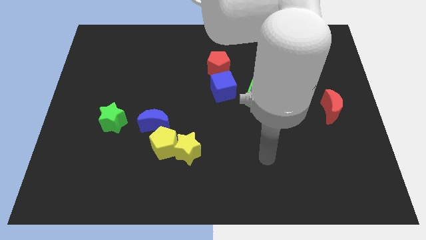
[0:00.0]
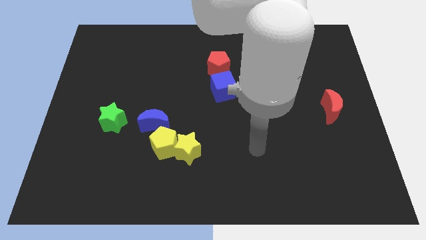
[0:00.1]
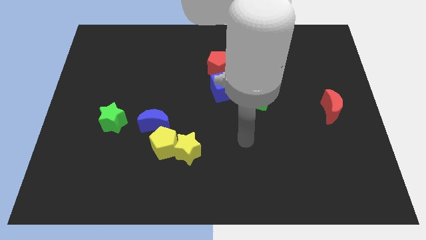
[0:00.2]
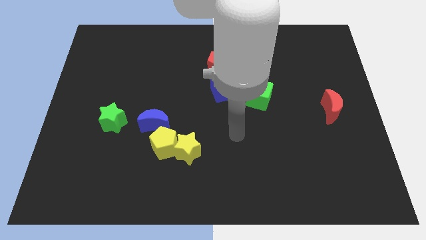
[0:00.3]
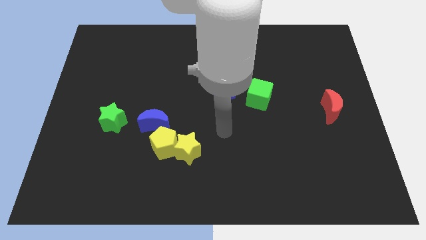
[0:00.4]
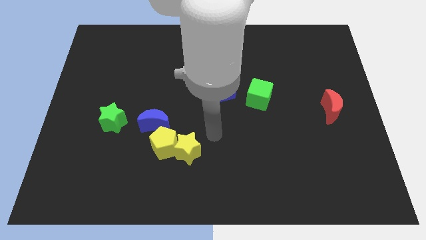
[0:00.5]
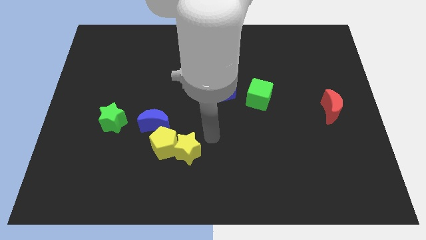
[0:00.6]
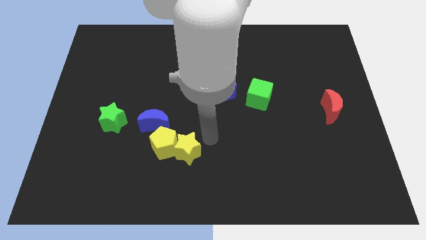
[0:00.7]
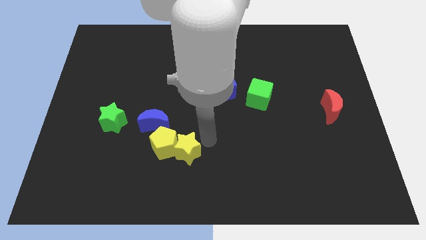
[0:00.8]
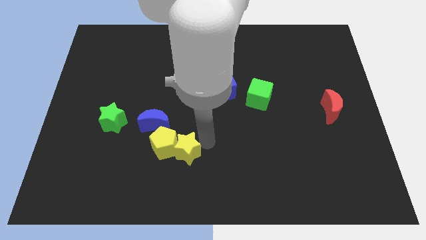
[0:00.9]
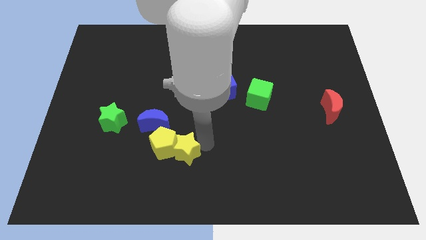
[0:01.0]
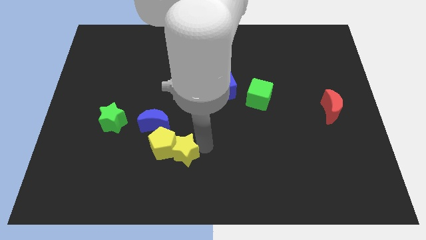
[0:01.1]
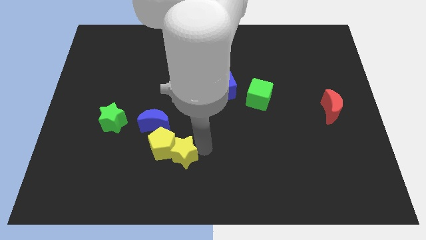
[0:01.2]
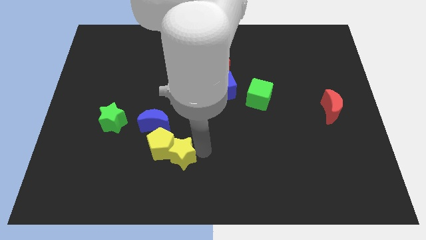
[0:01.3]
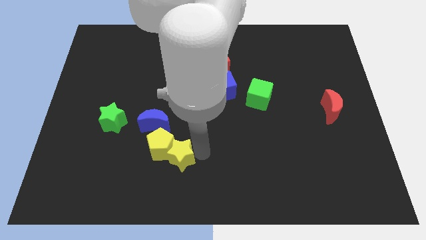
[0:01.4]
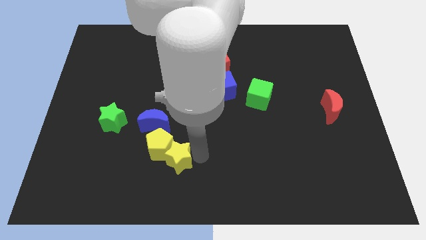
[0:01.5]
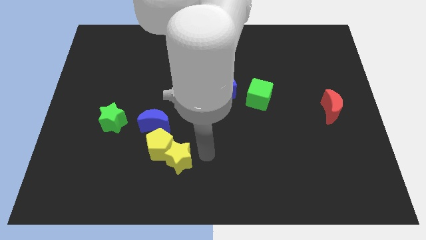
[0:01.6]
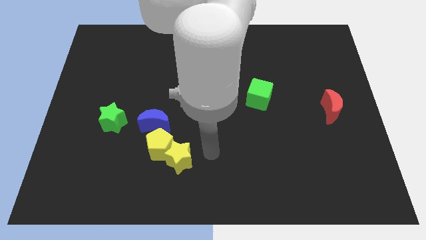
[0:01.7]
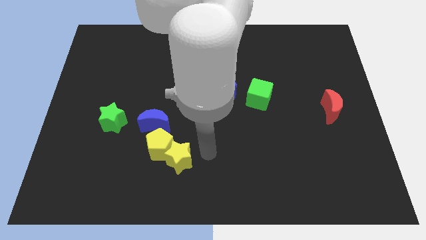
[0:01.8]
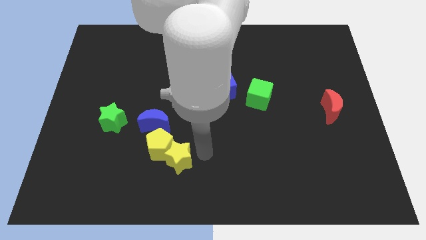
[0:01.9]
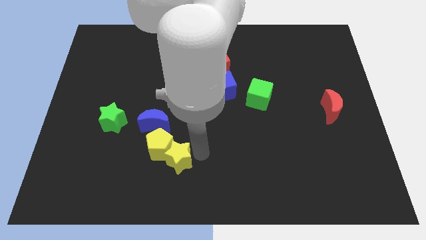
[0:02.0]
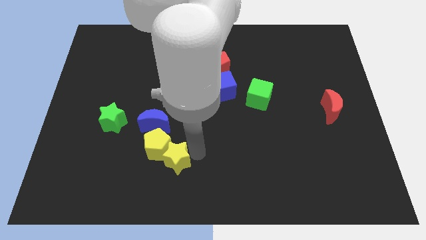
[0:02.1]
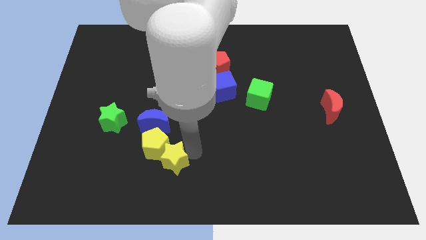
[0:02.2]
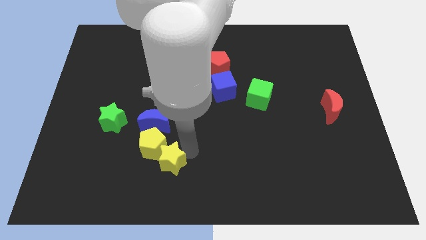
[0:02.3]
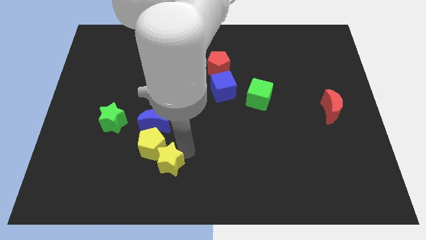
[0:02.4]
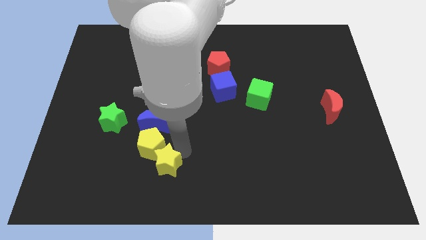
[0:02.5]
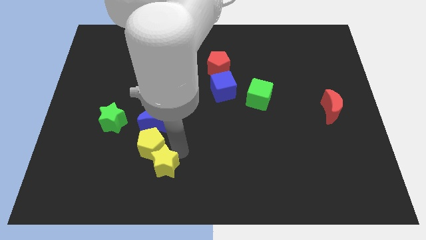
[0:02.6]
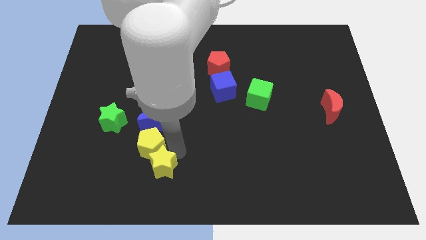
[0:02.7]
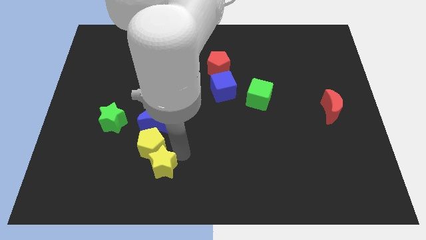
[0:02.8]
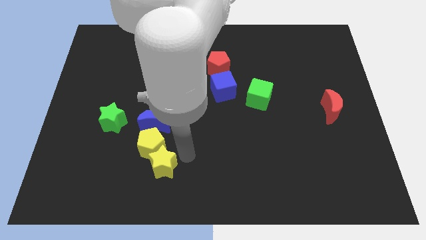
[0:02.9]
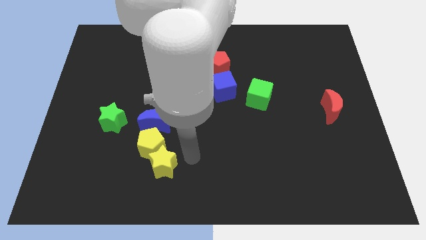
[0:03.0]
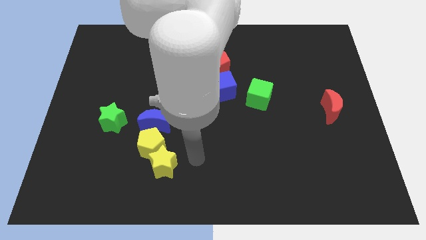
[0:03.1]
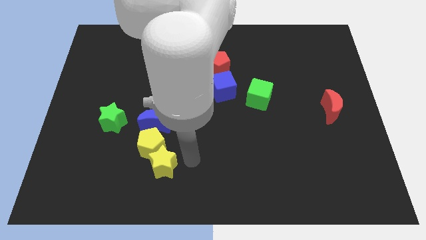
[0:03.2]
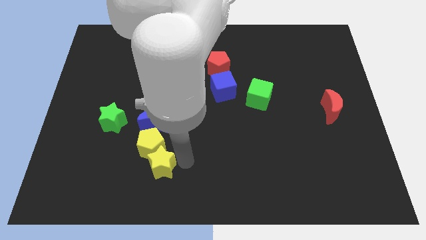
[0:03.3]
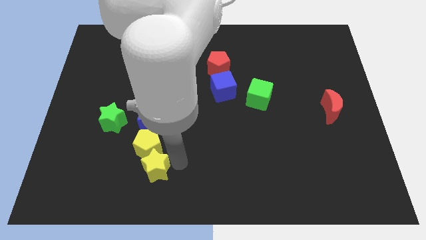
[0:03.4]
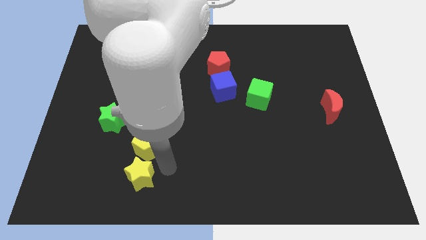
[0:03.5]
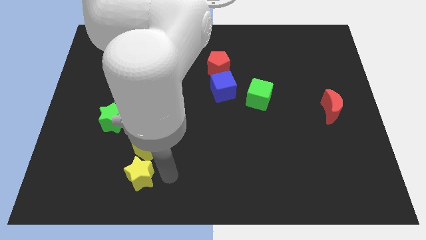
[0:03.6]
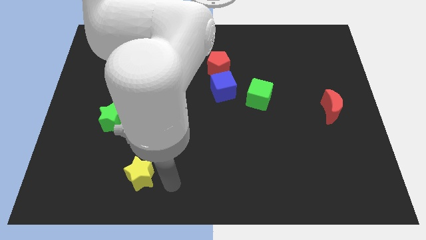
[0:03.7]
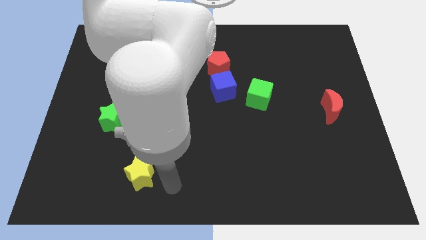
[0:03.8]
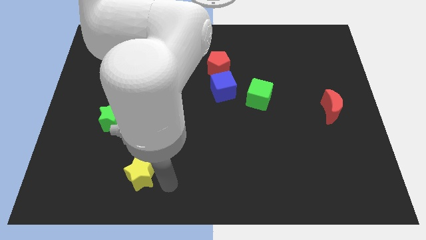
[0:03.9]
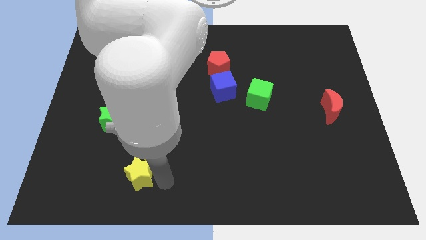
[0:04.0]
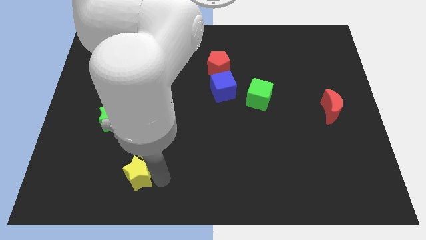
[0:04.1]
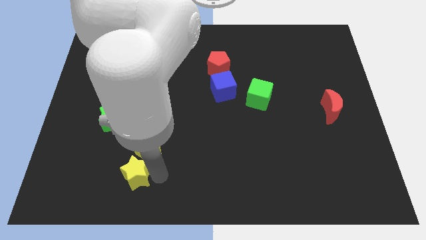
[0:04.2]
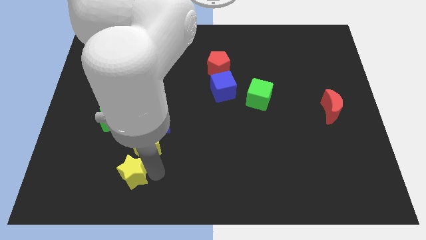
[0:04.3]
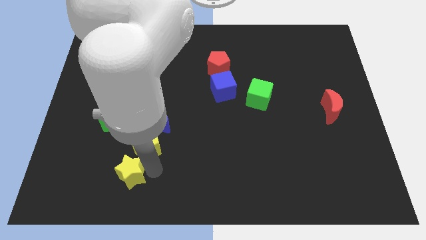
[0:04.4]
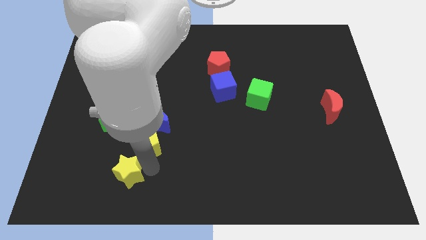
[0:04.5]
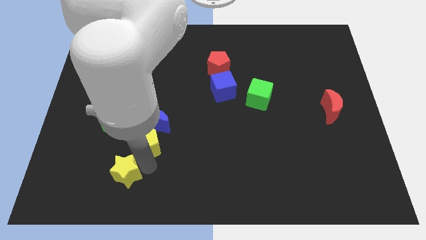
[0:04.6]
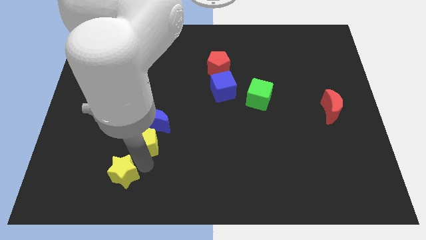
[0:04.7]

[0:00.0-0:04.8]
slide the yellow star to the bottom of the green star

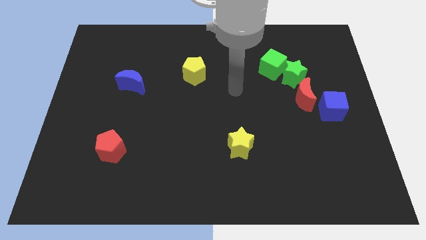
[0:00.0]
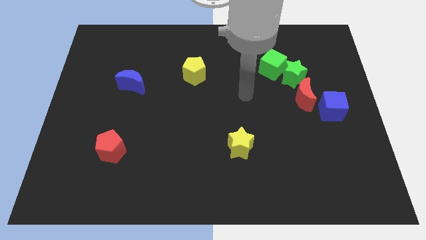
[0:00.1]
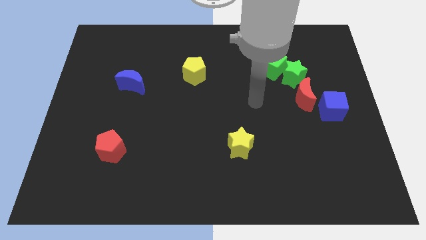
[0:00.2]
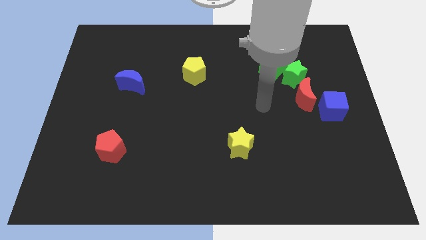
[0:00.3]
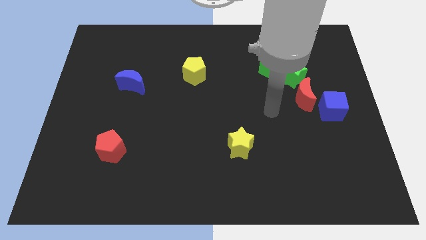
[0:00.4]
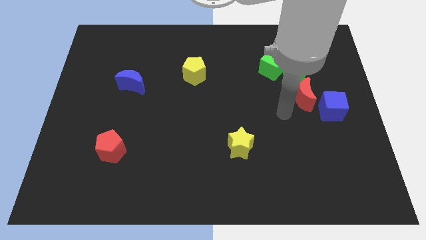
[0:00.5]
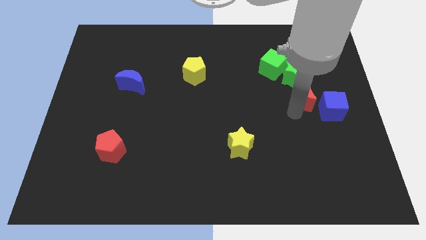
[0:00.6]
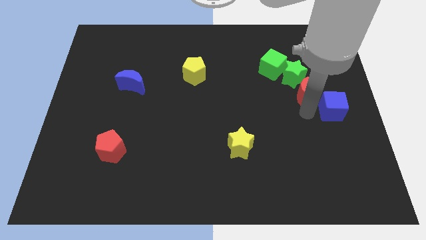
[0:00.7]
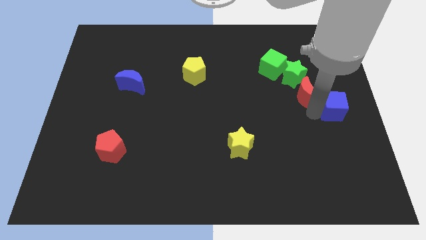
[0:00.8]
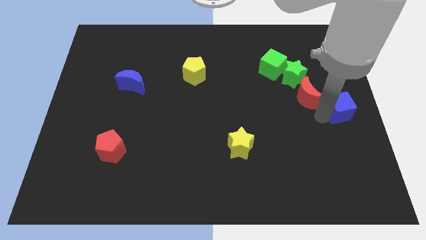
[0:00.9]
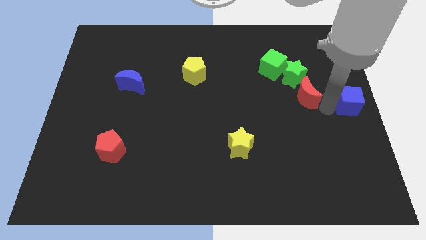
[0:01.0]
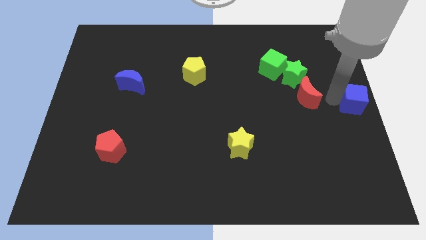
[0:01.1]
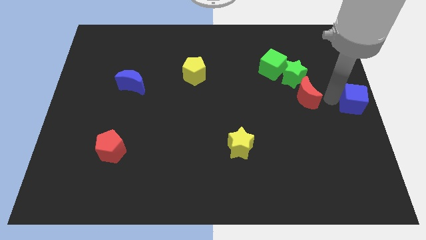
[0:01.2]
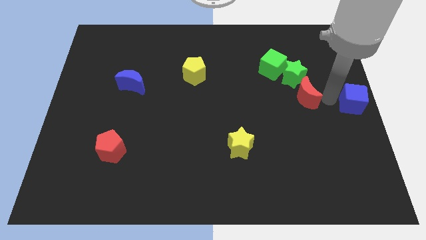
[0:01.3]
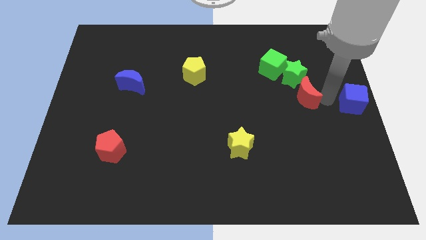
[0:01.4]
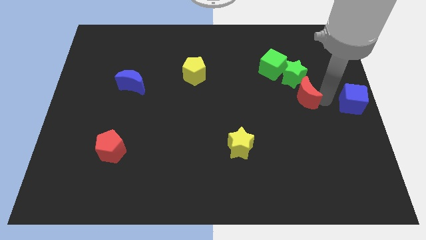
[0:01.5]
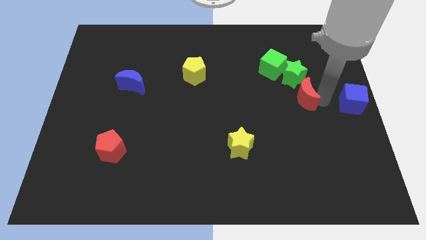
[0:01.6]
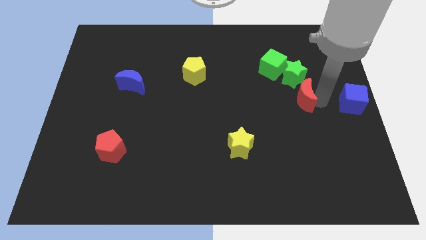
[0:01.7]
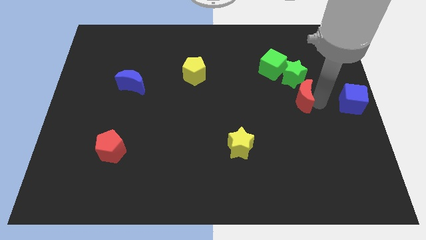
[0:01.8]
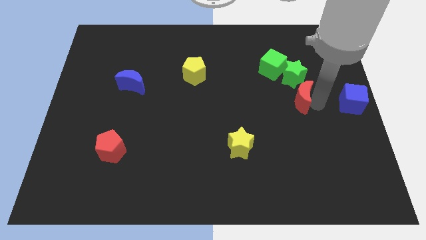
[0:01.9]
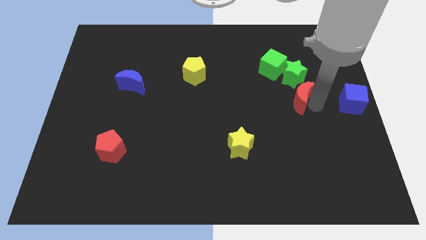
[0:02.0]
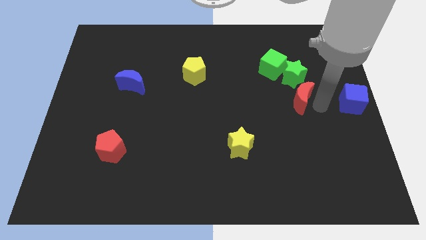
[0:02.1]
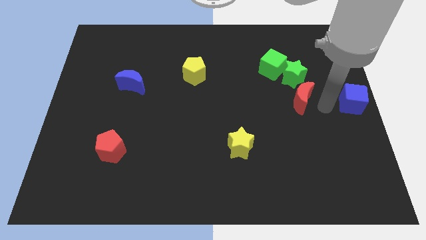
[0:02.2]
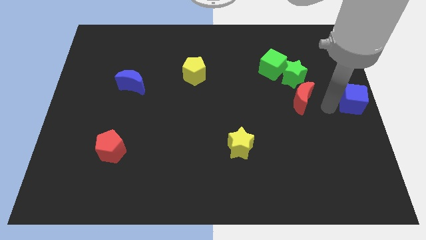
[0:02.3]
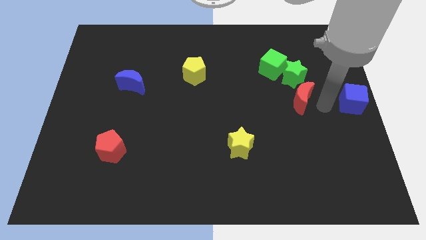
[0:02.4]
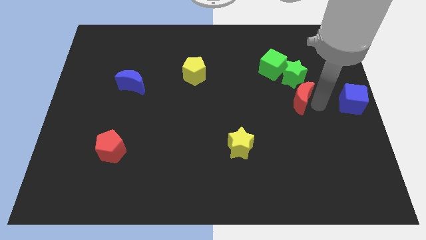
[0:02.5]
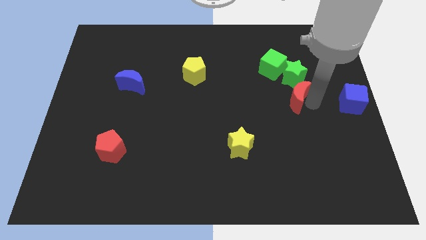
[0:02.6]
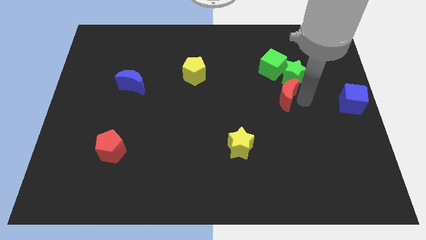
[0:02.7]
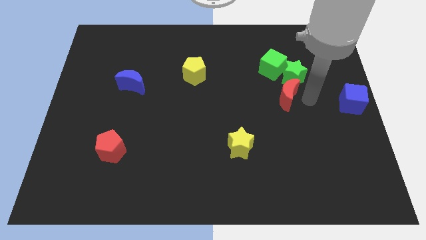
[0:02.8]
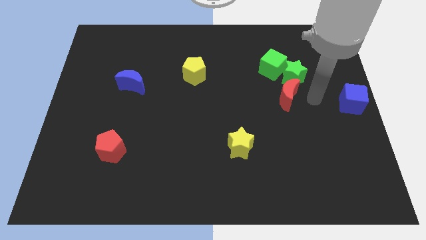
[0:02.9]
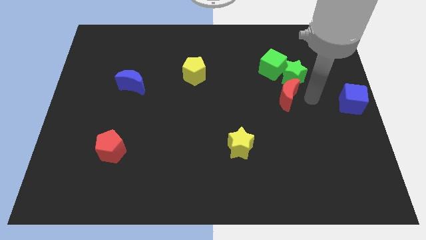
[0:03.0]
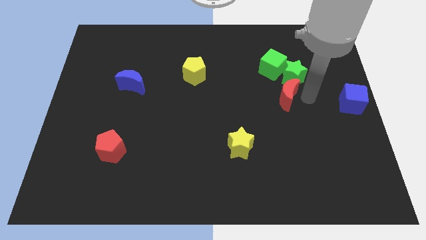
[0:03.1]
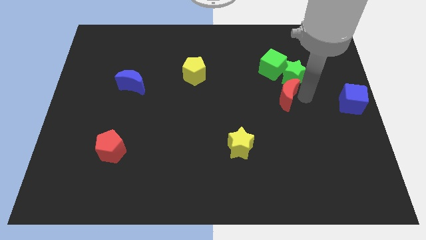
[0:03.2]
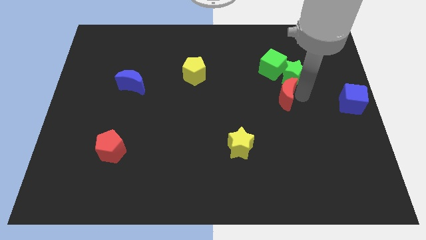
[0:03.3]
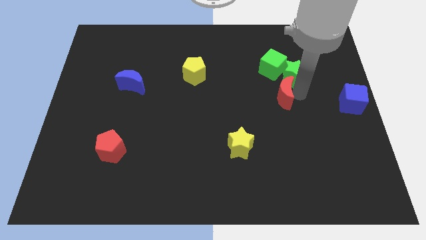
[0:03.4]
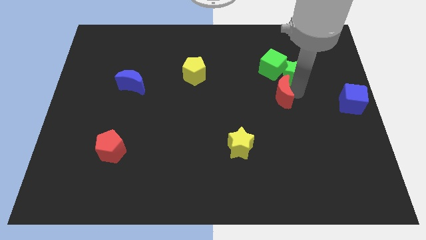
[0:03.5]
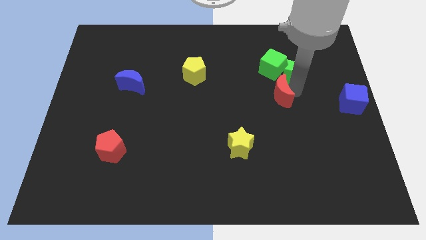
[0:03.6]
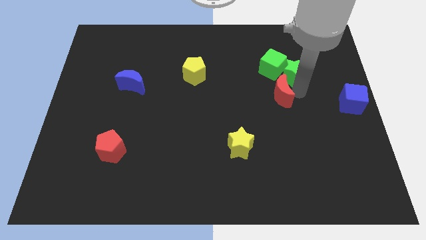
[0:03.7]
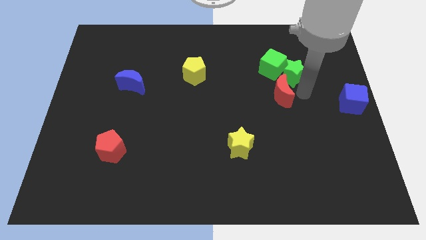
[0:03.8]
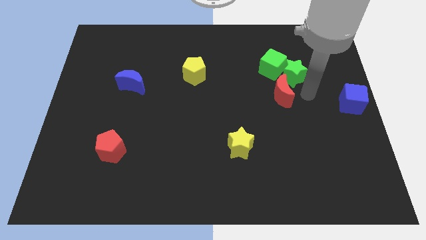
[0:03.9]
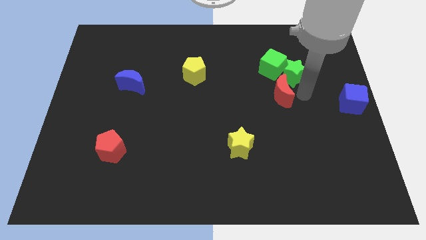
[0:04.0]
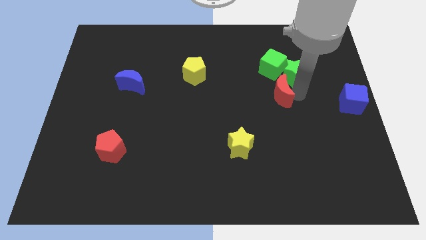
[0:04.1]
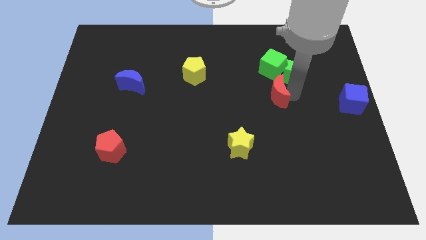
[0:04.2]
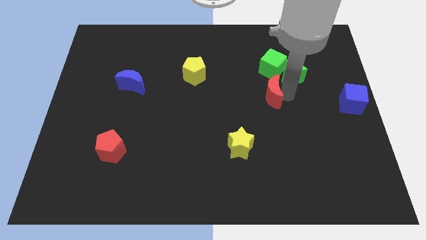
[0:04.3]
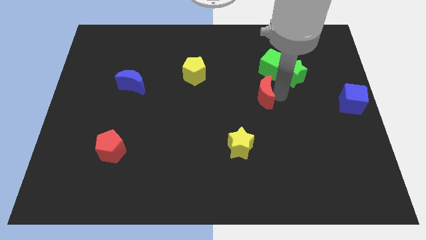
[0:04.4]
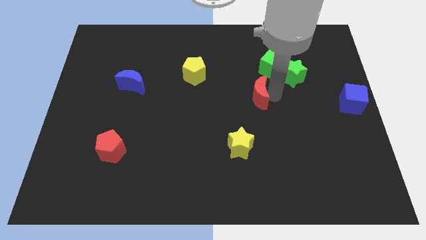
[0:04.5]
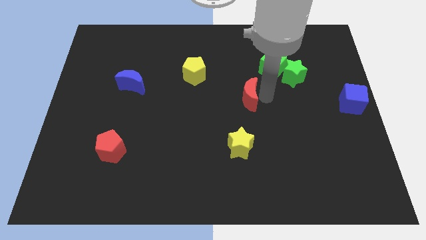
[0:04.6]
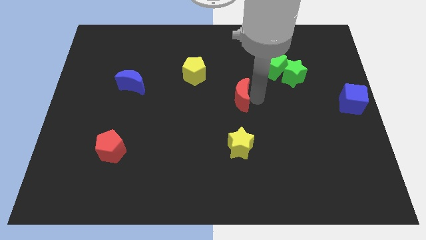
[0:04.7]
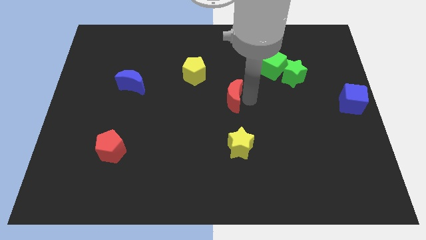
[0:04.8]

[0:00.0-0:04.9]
put the red moon diagonally down and to the right of the yellow pentagon
